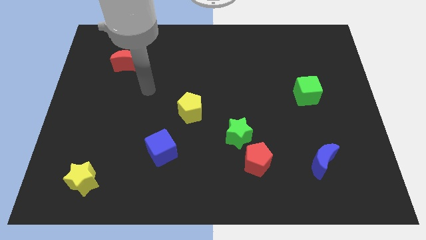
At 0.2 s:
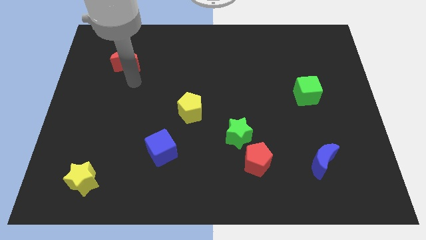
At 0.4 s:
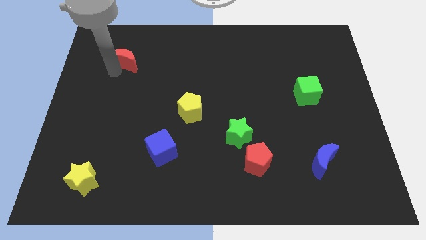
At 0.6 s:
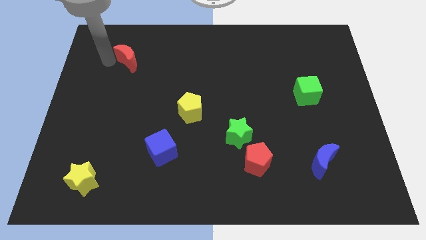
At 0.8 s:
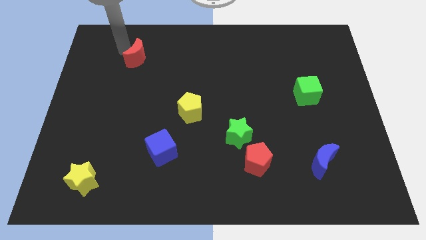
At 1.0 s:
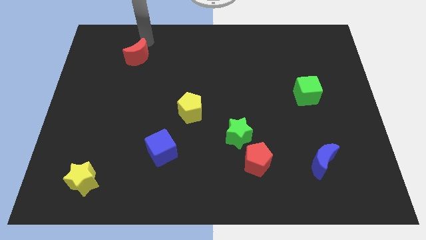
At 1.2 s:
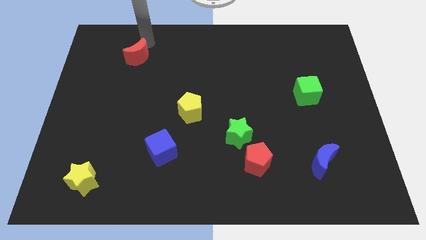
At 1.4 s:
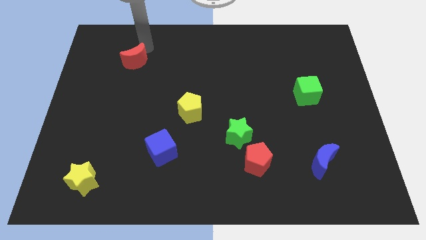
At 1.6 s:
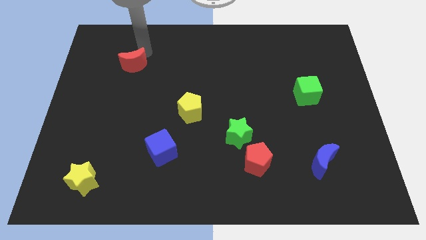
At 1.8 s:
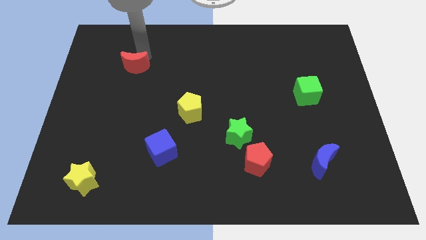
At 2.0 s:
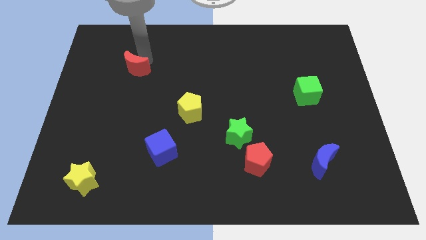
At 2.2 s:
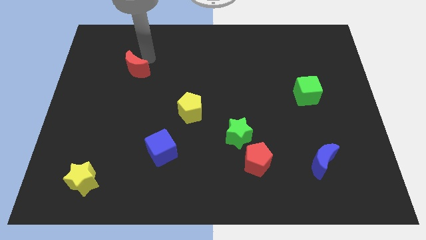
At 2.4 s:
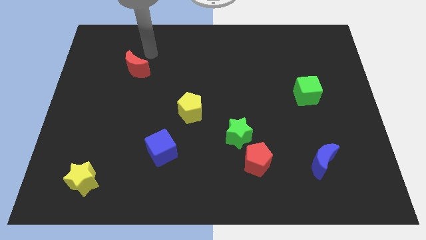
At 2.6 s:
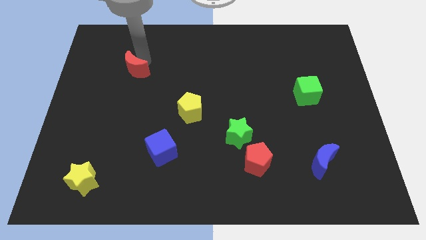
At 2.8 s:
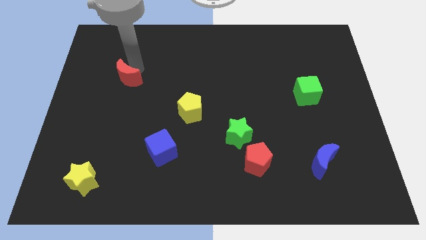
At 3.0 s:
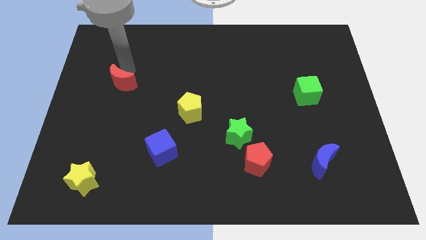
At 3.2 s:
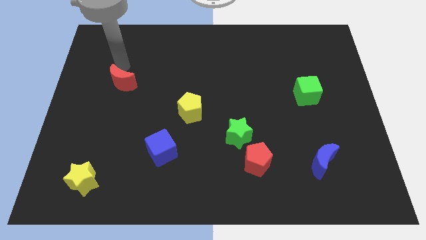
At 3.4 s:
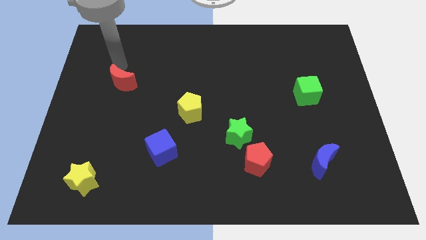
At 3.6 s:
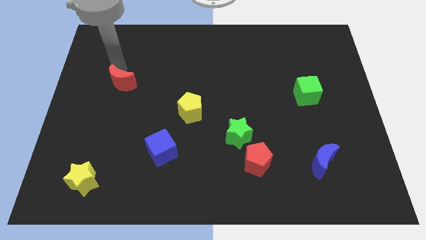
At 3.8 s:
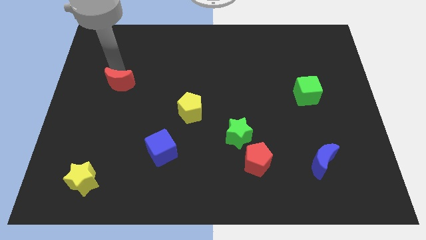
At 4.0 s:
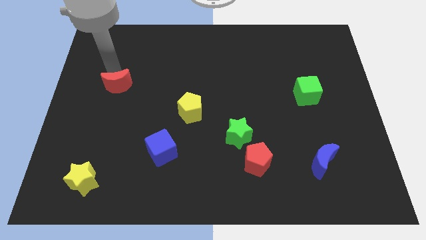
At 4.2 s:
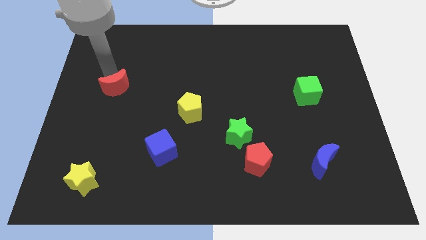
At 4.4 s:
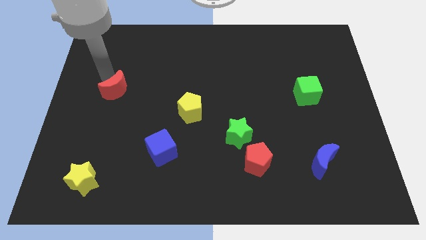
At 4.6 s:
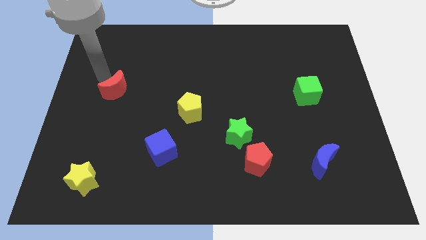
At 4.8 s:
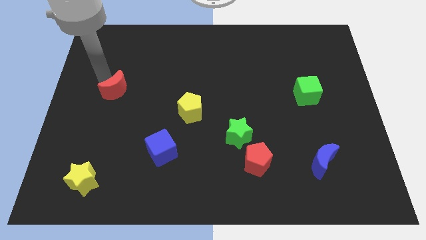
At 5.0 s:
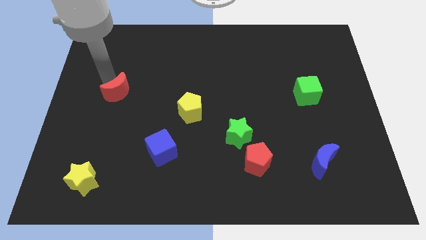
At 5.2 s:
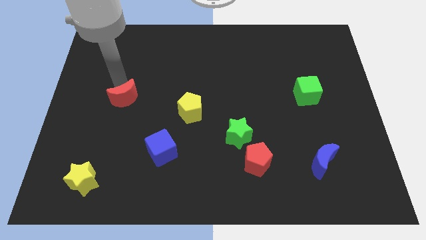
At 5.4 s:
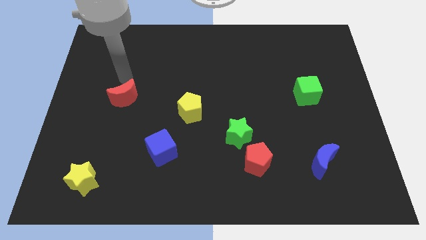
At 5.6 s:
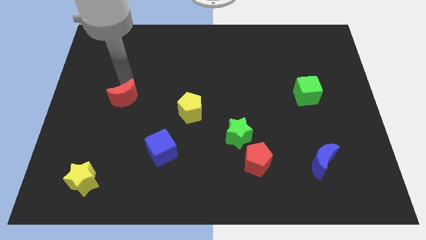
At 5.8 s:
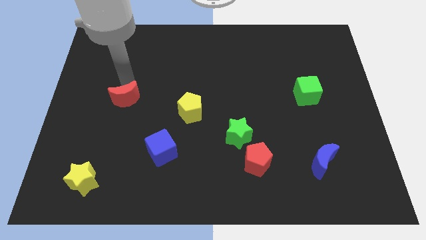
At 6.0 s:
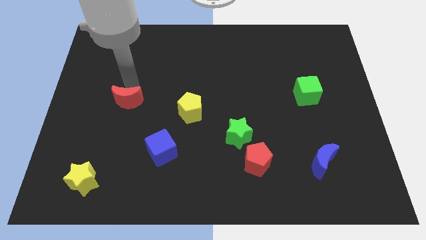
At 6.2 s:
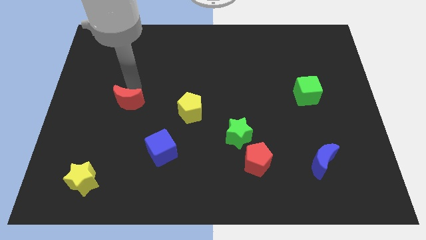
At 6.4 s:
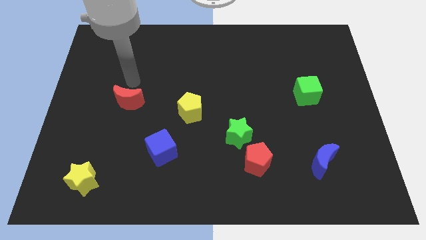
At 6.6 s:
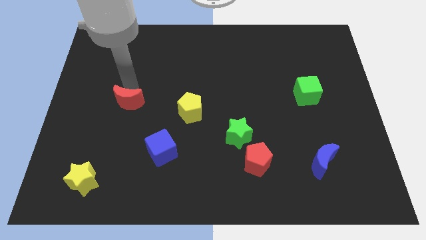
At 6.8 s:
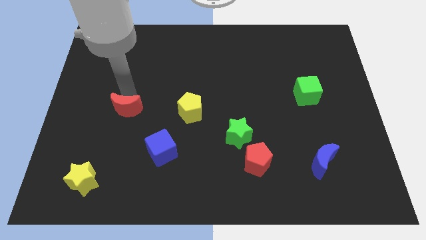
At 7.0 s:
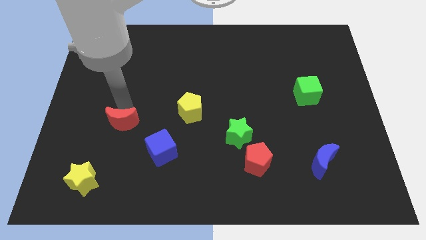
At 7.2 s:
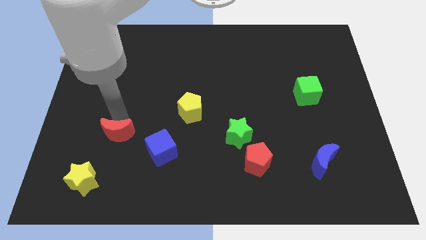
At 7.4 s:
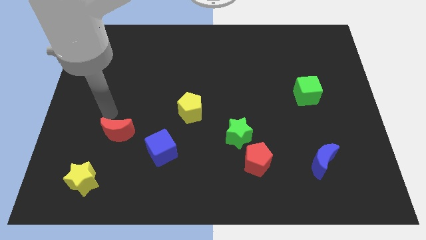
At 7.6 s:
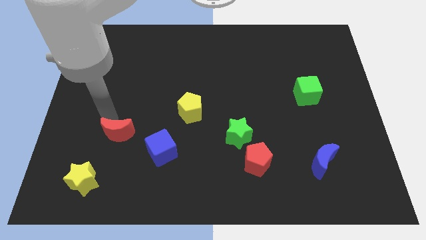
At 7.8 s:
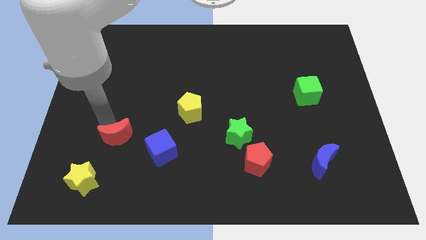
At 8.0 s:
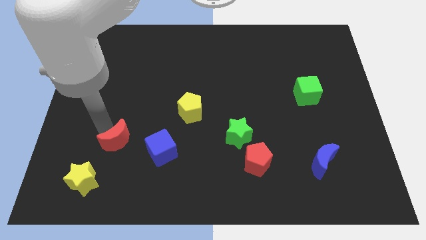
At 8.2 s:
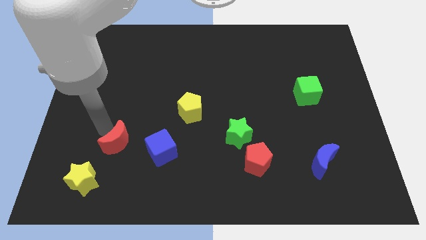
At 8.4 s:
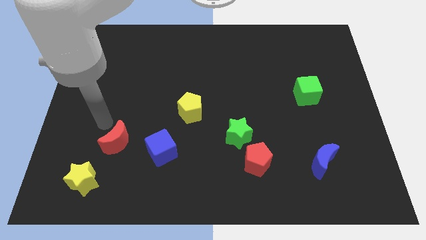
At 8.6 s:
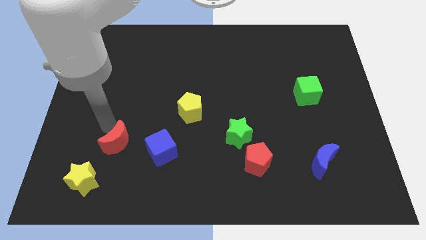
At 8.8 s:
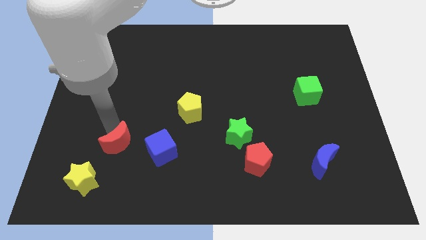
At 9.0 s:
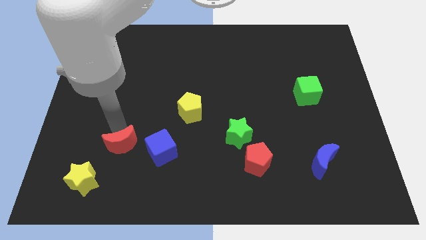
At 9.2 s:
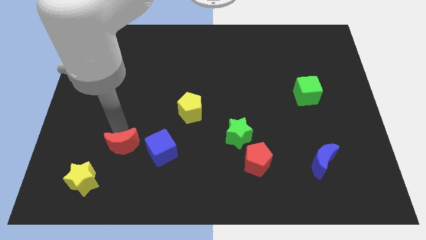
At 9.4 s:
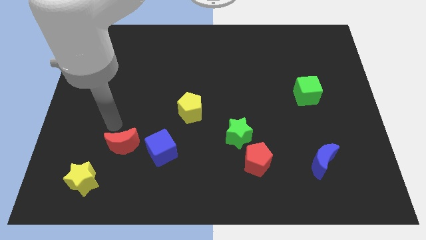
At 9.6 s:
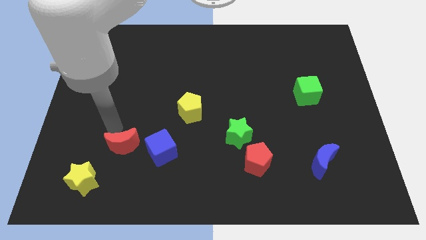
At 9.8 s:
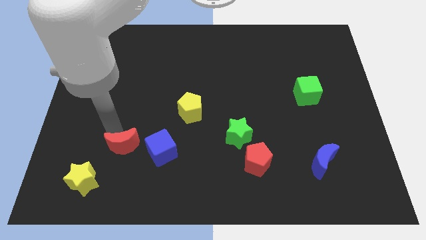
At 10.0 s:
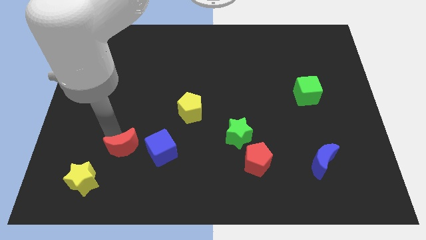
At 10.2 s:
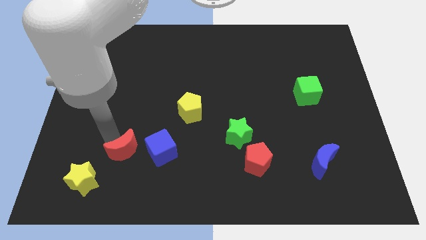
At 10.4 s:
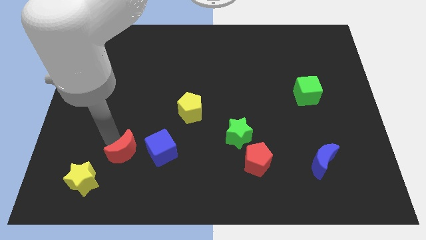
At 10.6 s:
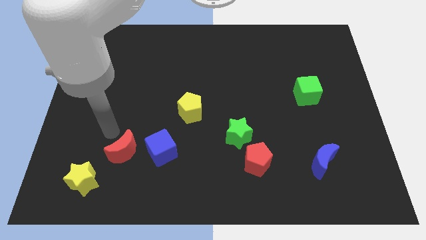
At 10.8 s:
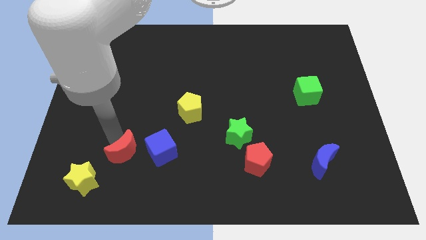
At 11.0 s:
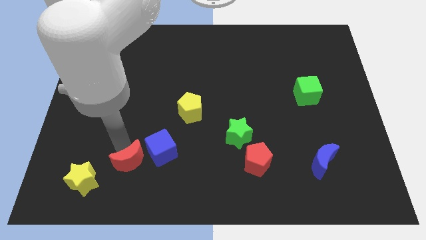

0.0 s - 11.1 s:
move the red moon right of the yellow star

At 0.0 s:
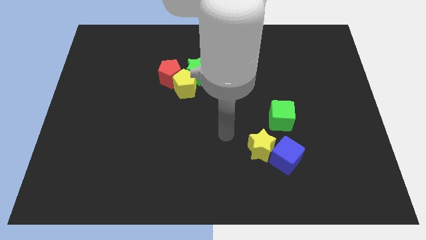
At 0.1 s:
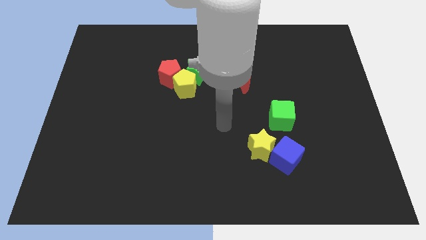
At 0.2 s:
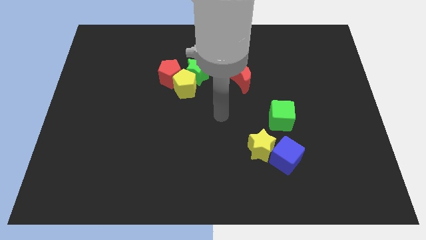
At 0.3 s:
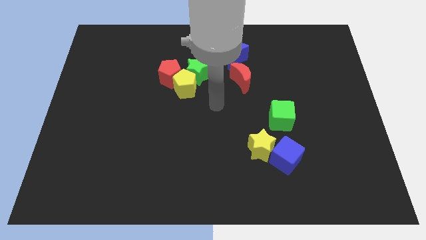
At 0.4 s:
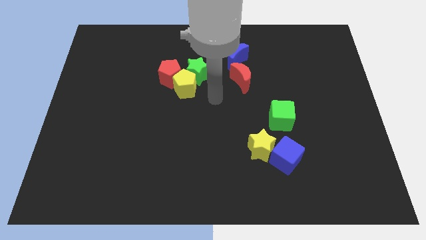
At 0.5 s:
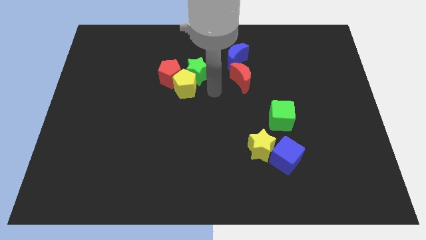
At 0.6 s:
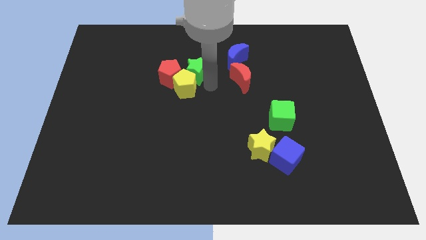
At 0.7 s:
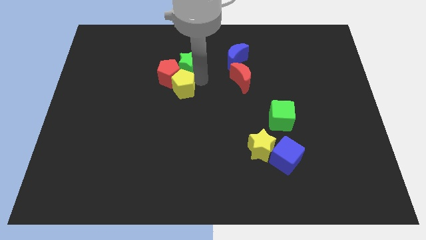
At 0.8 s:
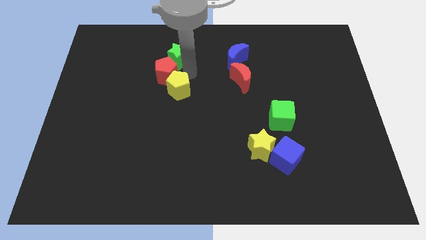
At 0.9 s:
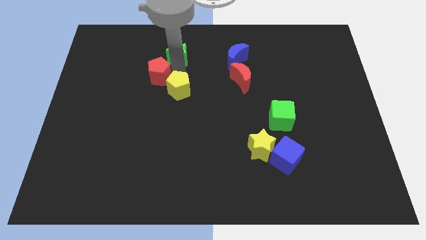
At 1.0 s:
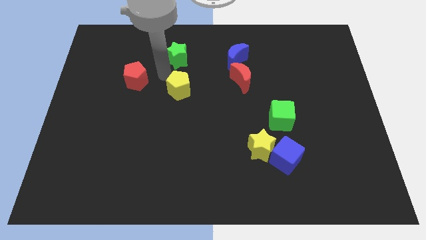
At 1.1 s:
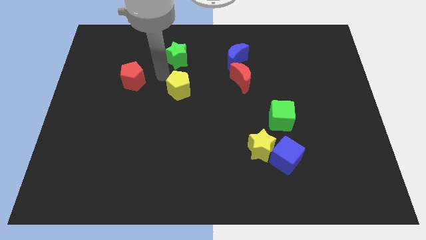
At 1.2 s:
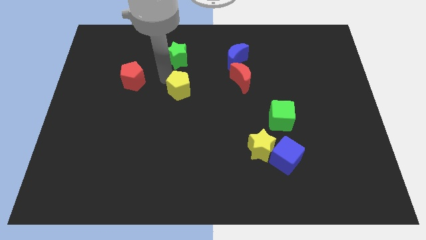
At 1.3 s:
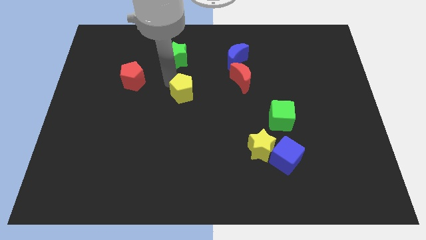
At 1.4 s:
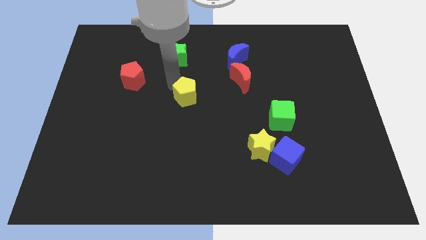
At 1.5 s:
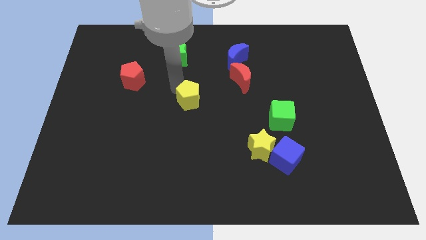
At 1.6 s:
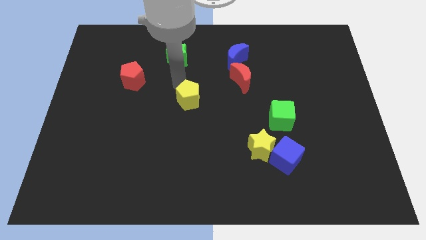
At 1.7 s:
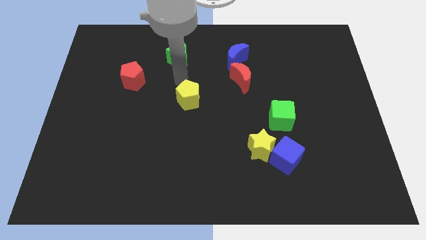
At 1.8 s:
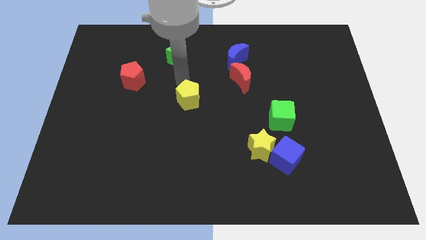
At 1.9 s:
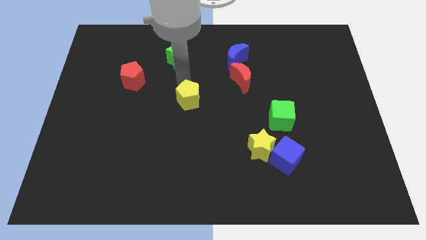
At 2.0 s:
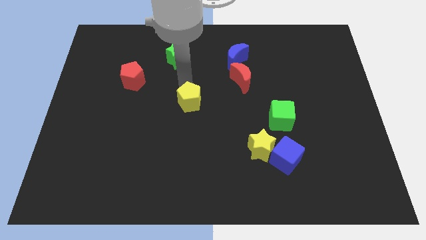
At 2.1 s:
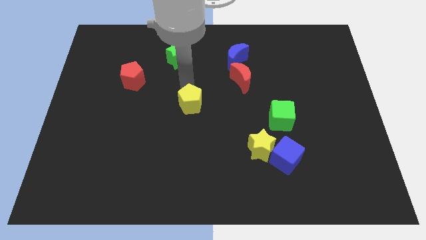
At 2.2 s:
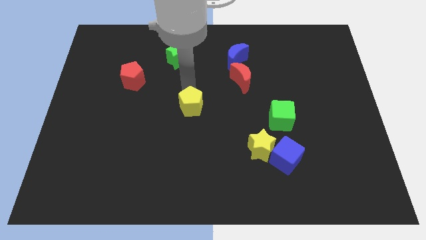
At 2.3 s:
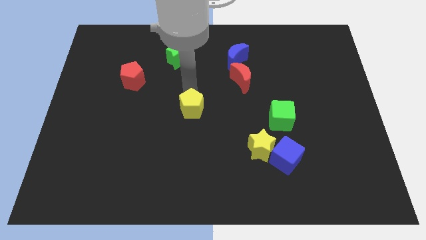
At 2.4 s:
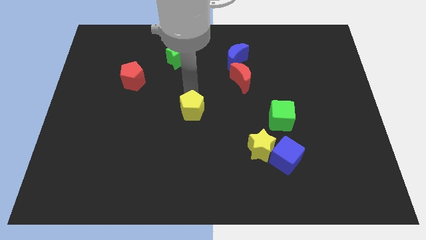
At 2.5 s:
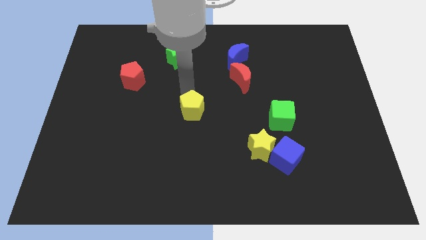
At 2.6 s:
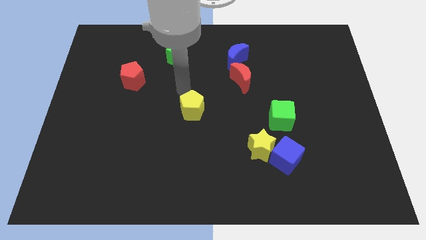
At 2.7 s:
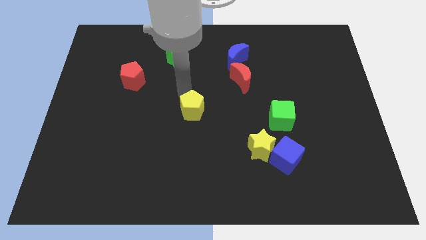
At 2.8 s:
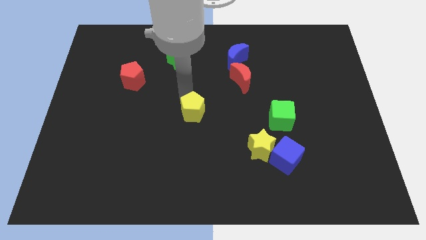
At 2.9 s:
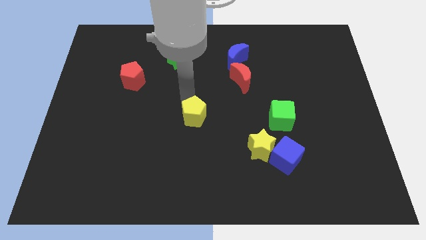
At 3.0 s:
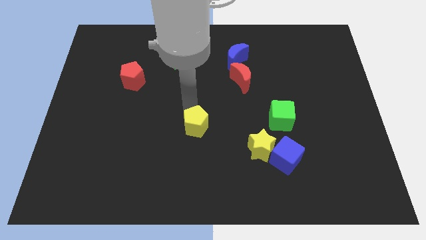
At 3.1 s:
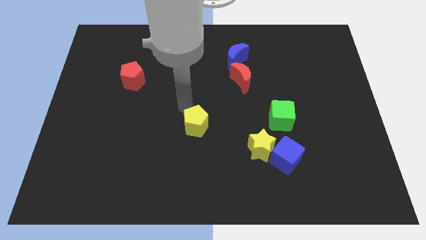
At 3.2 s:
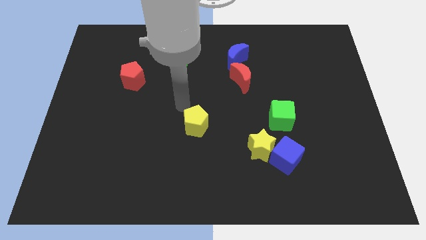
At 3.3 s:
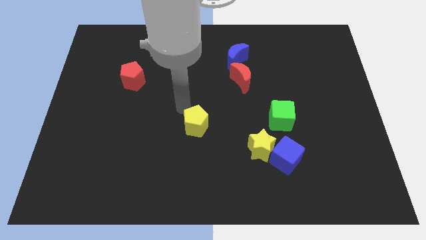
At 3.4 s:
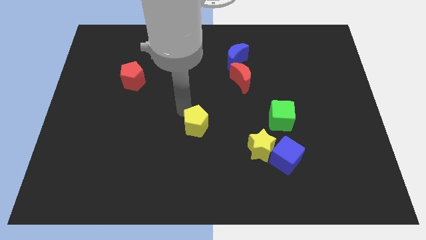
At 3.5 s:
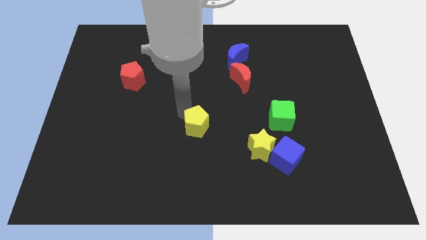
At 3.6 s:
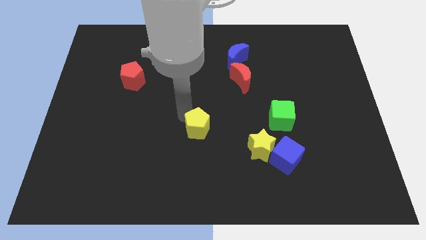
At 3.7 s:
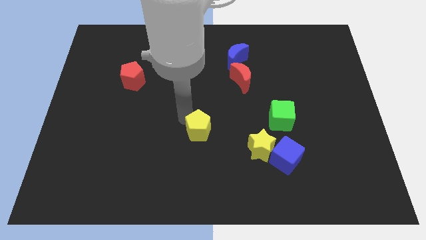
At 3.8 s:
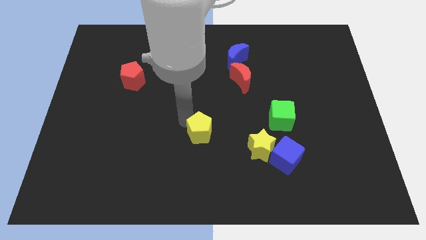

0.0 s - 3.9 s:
push the yellow pentagon to the left side of the yellow star
